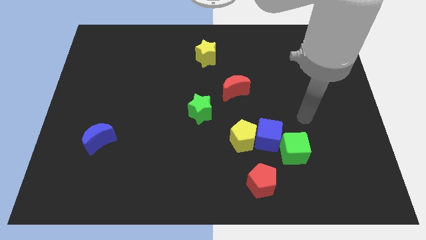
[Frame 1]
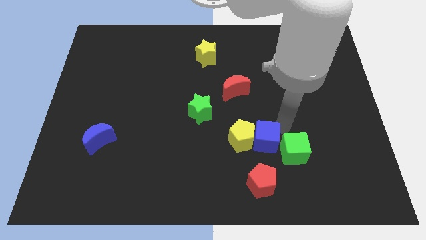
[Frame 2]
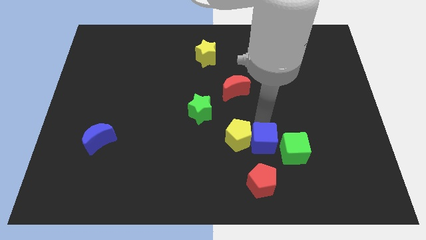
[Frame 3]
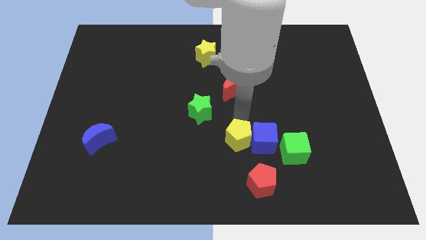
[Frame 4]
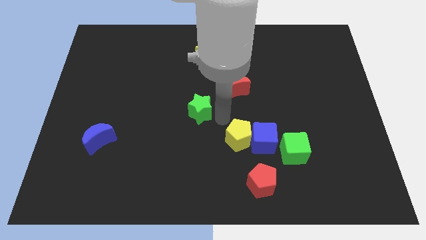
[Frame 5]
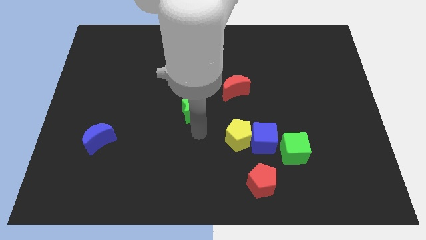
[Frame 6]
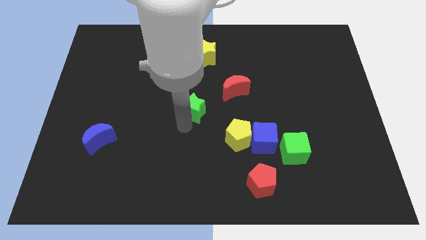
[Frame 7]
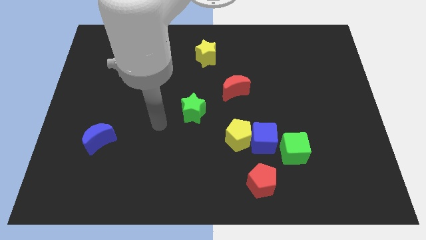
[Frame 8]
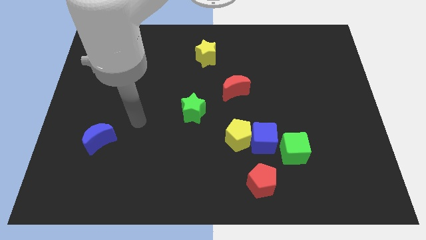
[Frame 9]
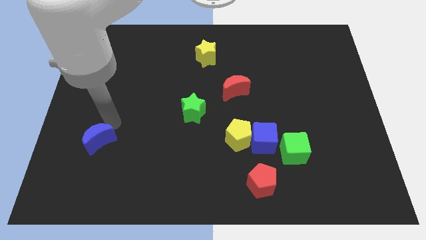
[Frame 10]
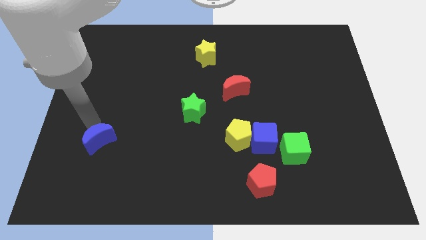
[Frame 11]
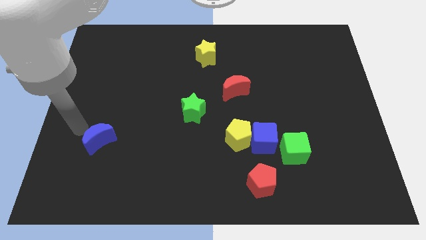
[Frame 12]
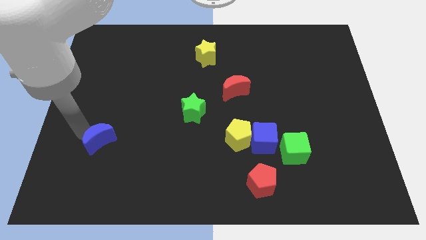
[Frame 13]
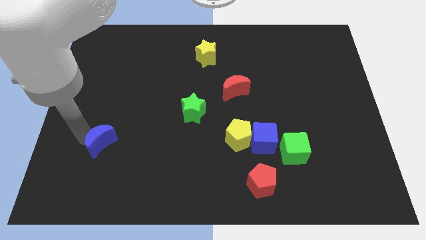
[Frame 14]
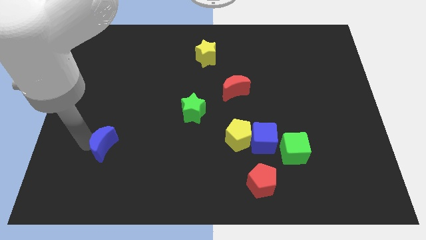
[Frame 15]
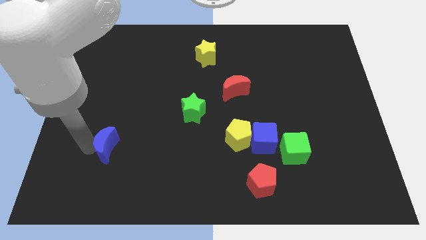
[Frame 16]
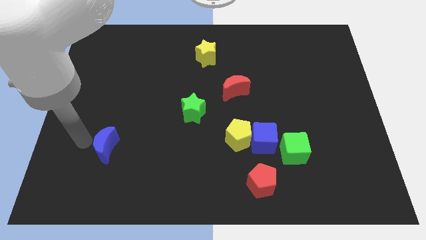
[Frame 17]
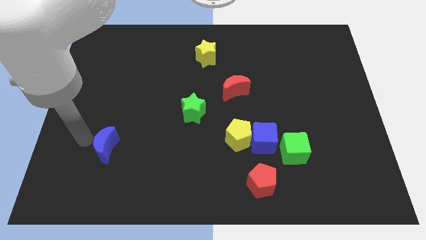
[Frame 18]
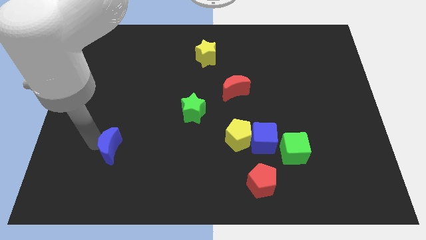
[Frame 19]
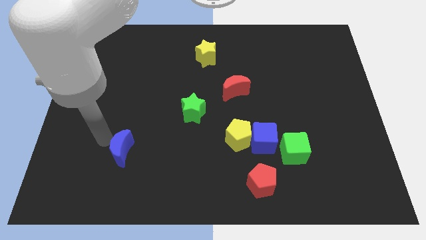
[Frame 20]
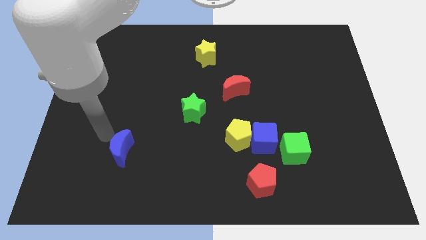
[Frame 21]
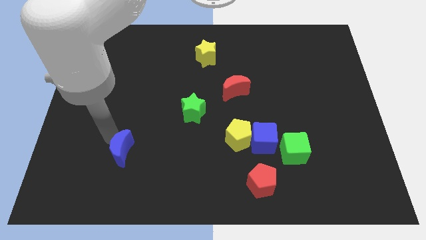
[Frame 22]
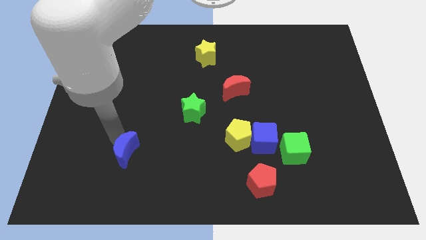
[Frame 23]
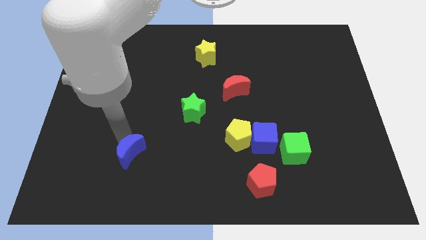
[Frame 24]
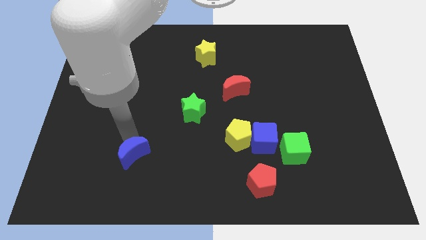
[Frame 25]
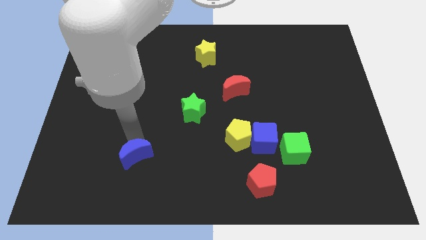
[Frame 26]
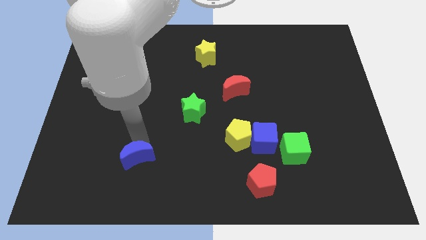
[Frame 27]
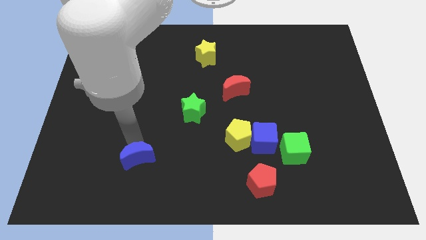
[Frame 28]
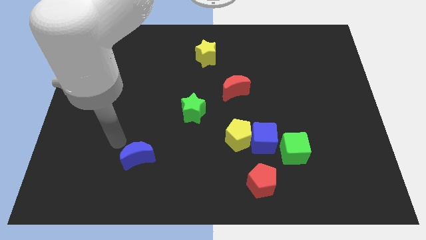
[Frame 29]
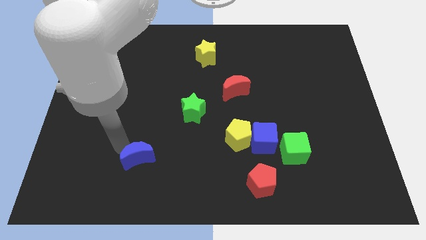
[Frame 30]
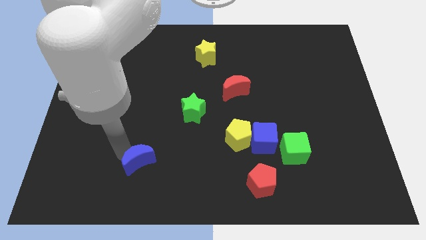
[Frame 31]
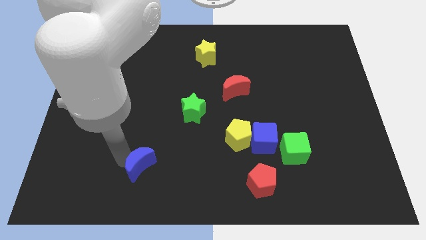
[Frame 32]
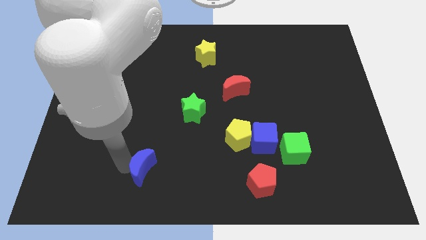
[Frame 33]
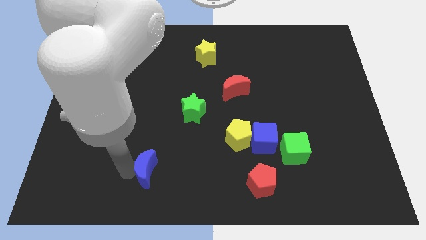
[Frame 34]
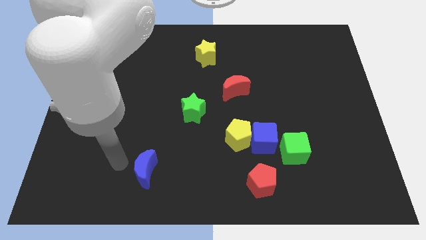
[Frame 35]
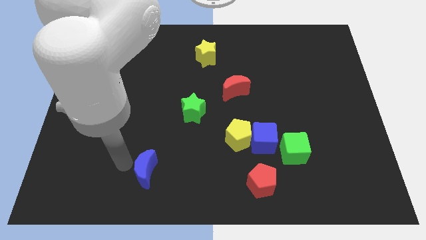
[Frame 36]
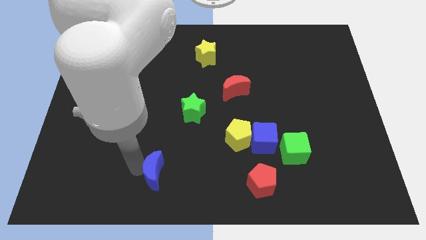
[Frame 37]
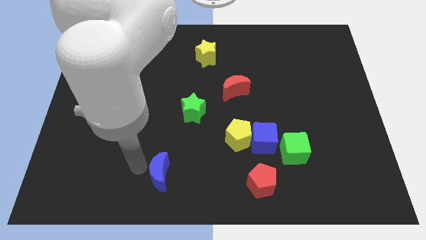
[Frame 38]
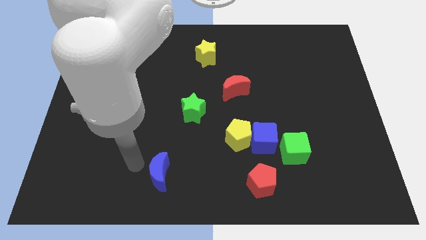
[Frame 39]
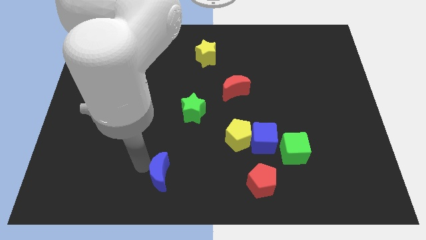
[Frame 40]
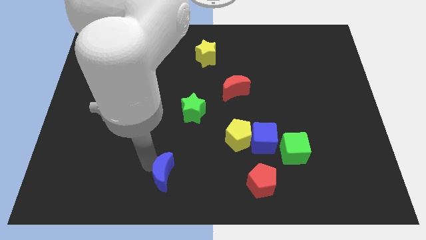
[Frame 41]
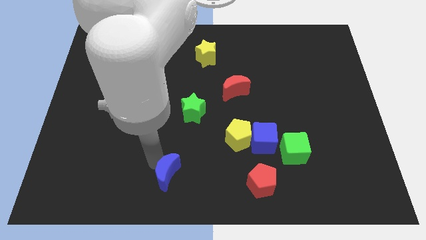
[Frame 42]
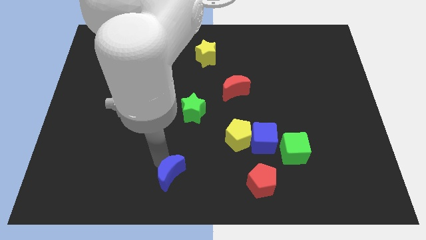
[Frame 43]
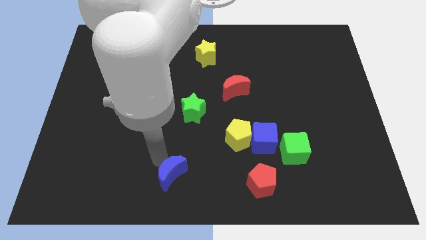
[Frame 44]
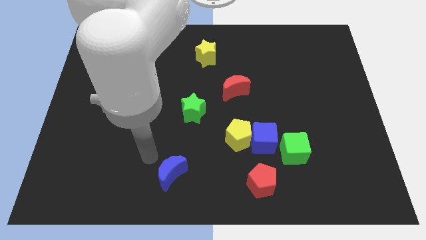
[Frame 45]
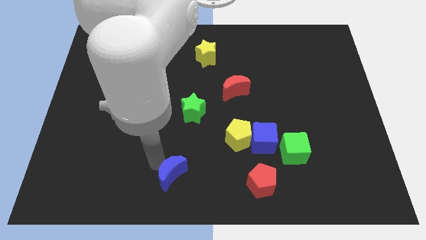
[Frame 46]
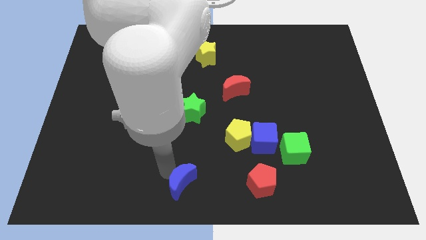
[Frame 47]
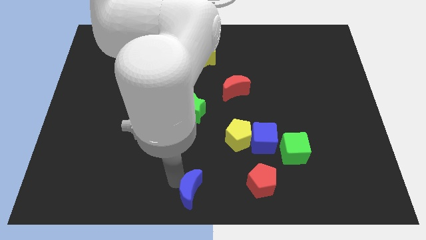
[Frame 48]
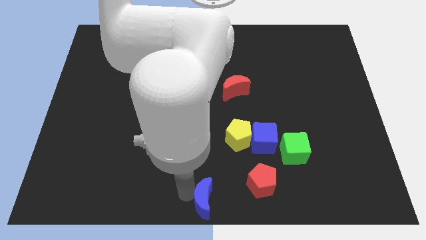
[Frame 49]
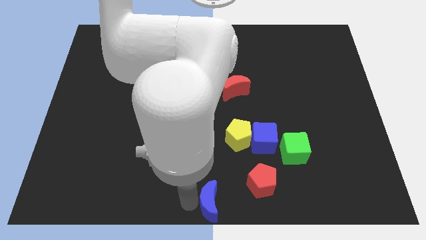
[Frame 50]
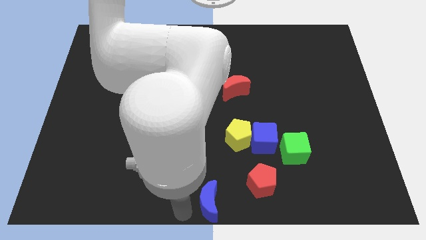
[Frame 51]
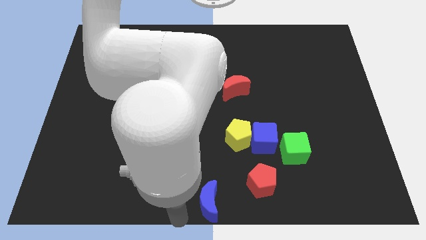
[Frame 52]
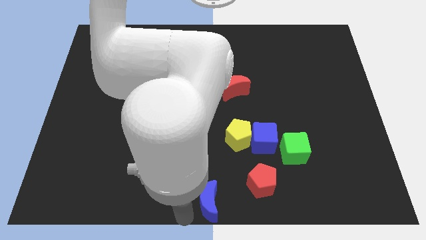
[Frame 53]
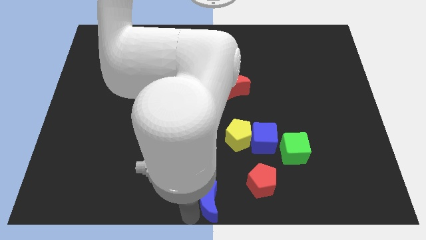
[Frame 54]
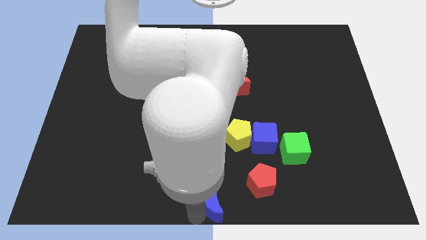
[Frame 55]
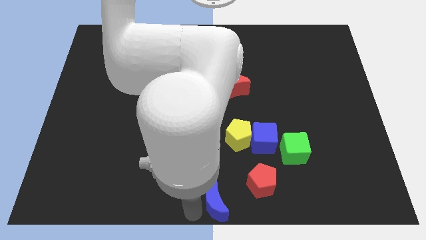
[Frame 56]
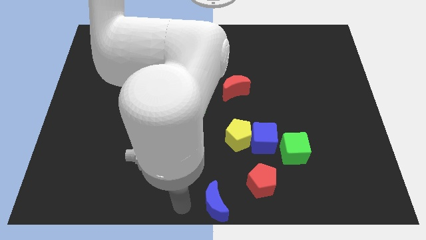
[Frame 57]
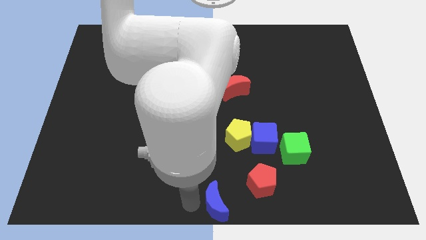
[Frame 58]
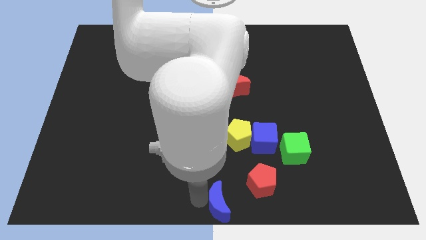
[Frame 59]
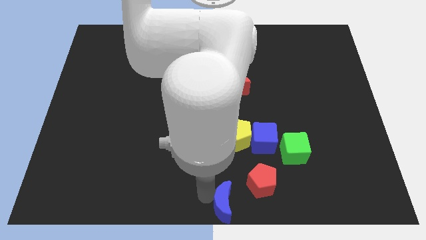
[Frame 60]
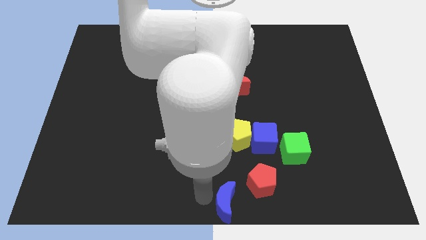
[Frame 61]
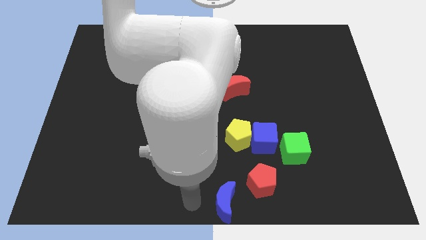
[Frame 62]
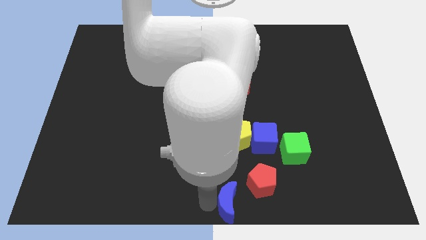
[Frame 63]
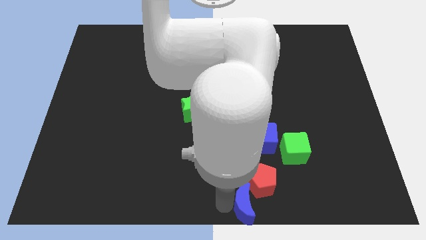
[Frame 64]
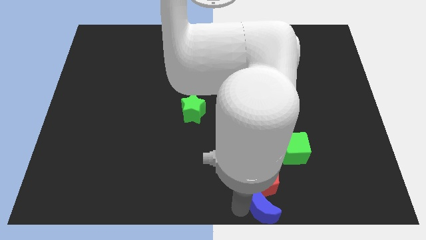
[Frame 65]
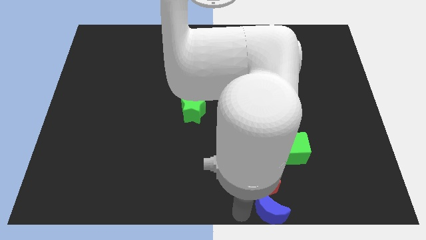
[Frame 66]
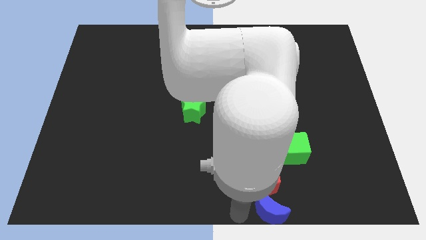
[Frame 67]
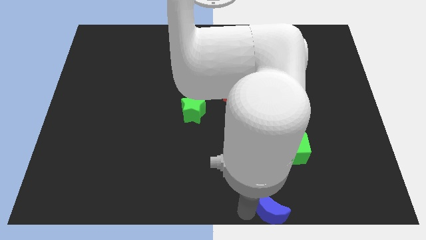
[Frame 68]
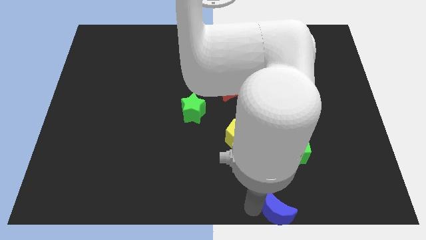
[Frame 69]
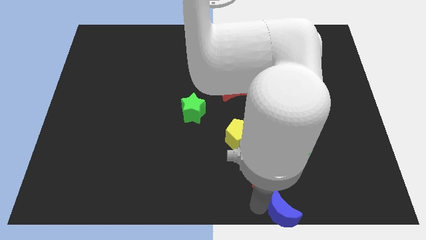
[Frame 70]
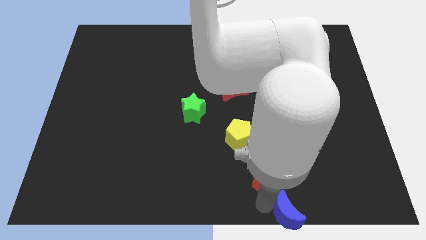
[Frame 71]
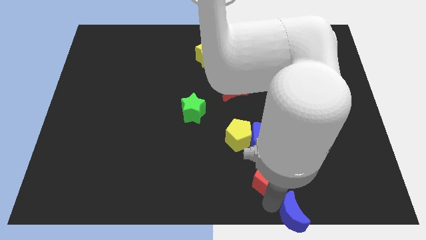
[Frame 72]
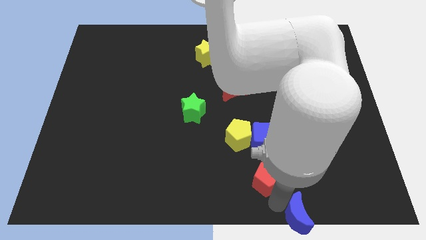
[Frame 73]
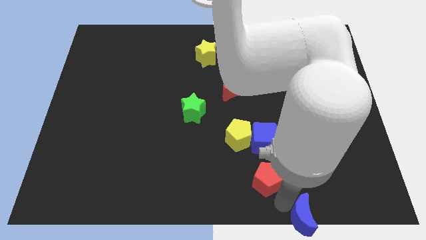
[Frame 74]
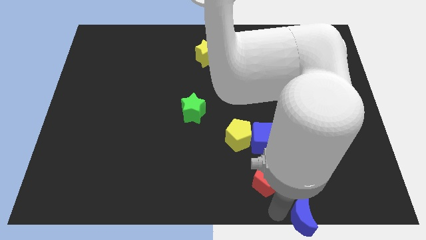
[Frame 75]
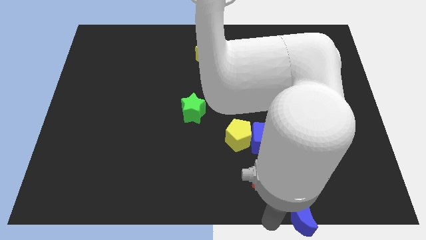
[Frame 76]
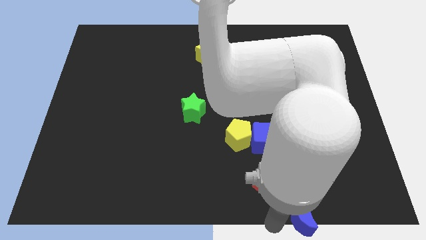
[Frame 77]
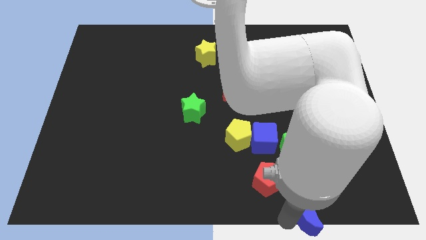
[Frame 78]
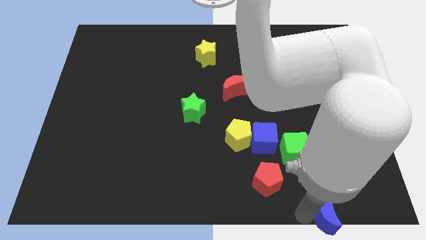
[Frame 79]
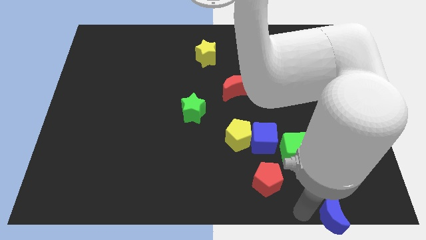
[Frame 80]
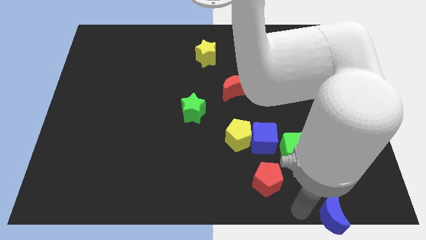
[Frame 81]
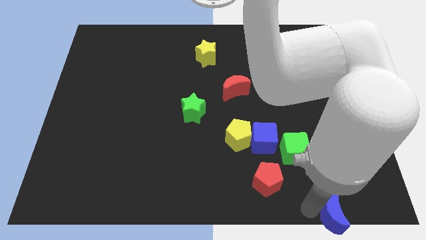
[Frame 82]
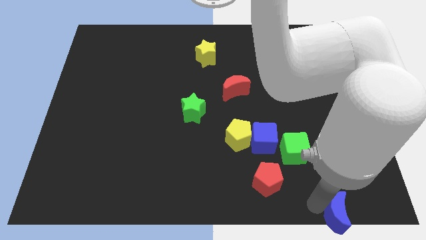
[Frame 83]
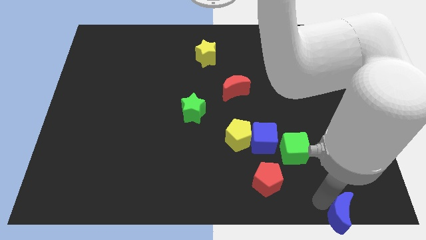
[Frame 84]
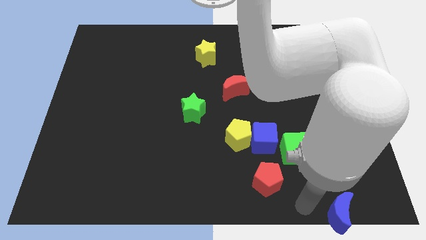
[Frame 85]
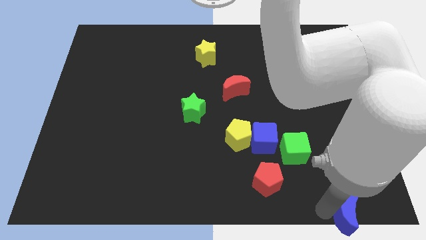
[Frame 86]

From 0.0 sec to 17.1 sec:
slide the blue moon to the bottom right corner
